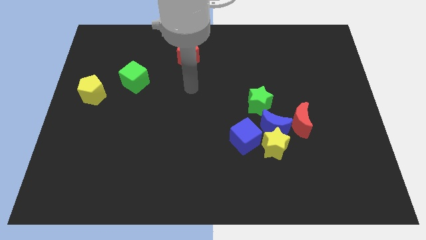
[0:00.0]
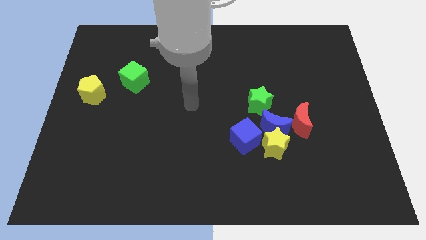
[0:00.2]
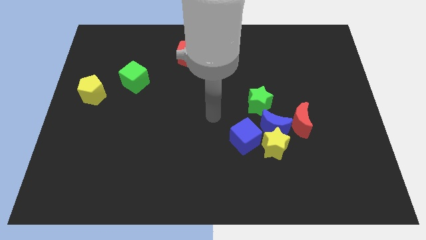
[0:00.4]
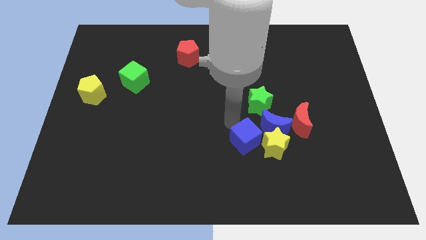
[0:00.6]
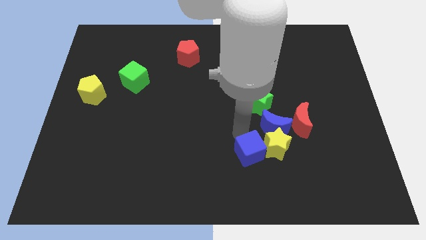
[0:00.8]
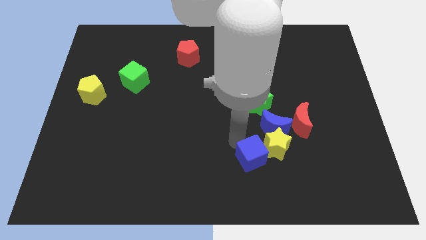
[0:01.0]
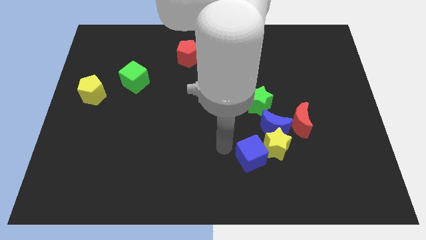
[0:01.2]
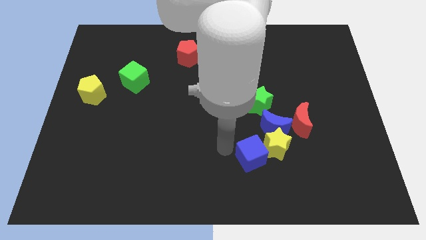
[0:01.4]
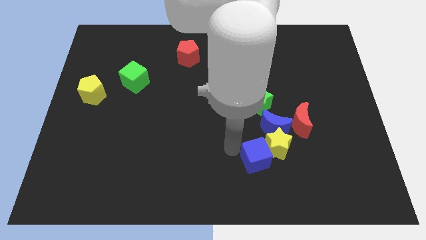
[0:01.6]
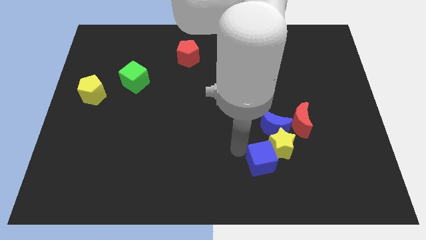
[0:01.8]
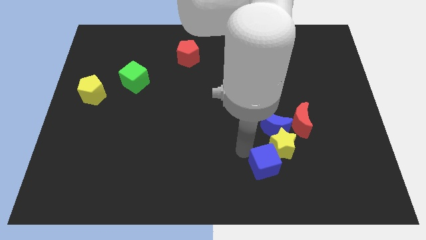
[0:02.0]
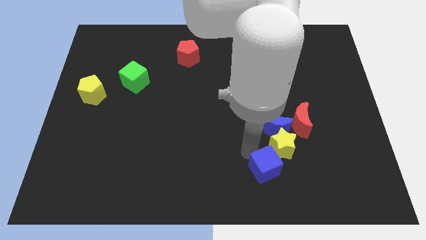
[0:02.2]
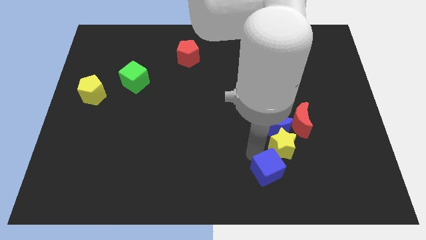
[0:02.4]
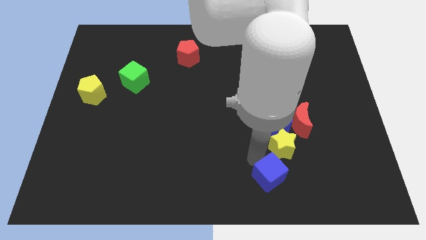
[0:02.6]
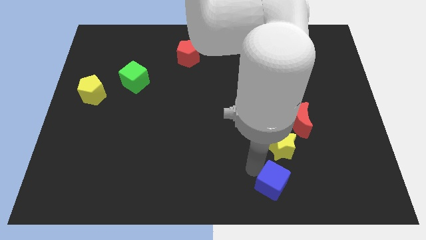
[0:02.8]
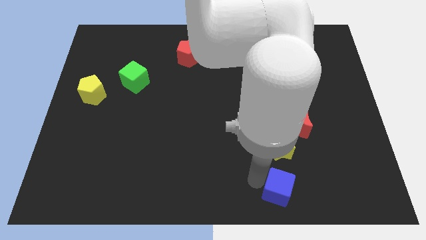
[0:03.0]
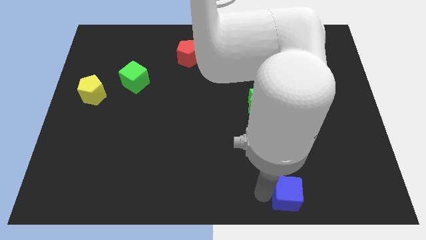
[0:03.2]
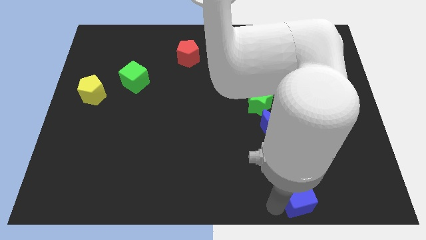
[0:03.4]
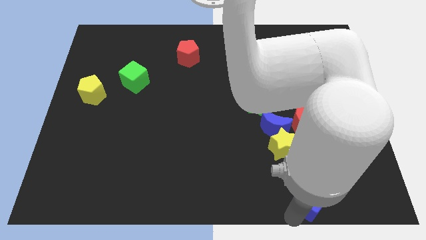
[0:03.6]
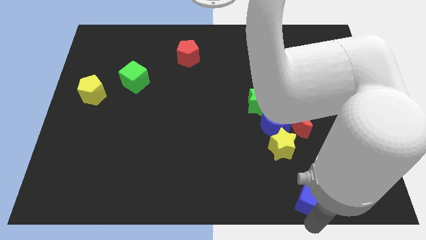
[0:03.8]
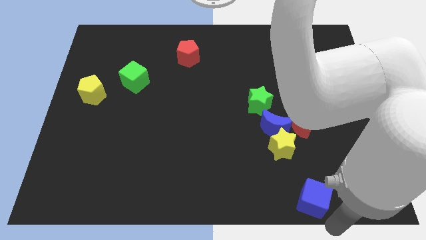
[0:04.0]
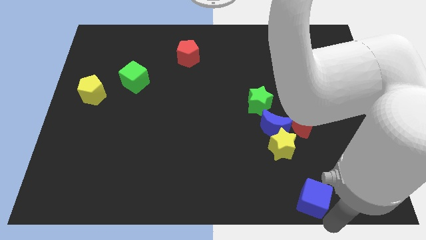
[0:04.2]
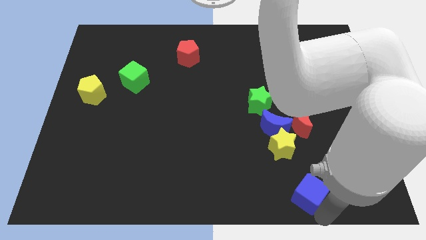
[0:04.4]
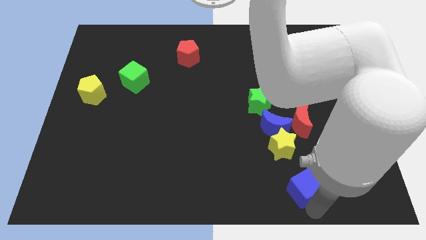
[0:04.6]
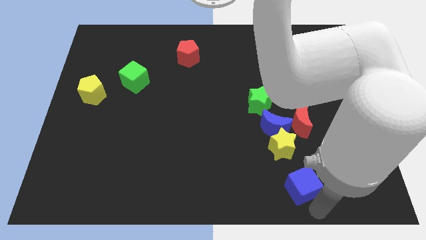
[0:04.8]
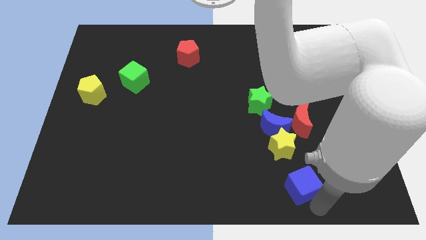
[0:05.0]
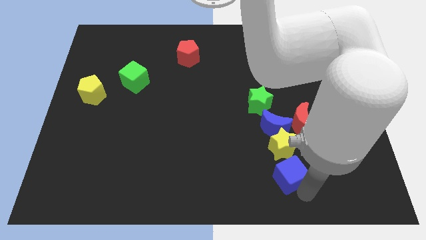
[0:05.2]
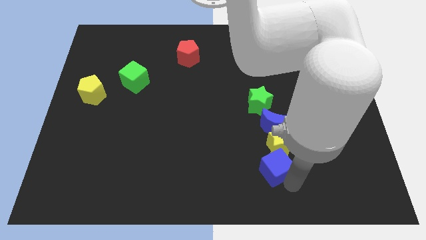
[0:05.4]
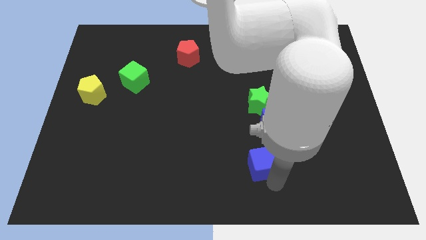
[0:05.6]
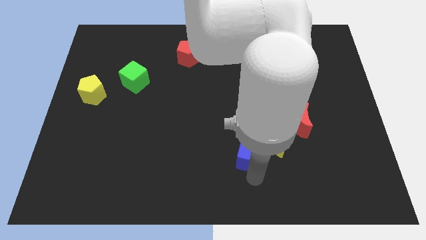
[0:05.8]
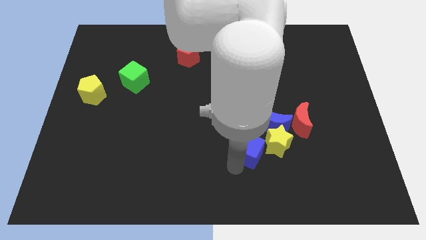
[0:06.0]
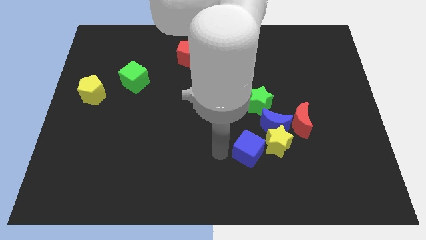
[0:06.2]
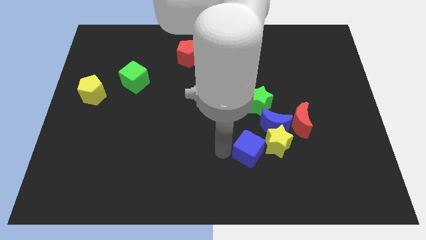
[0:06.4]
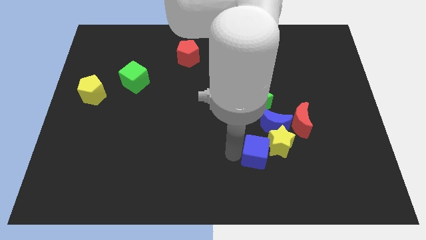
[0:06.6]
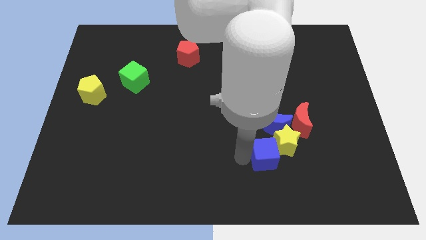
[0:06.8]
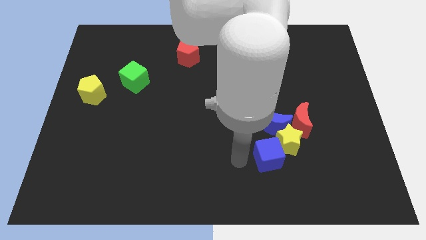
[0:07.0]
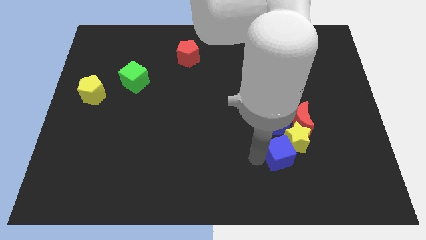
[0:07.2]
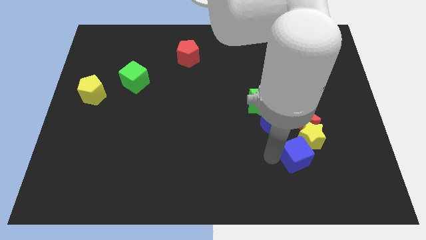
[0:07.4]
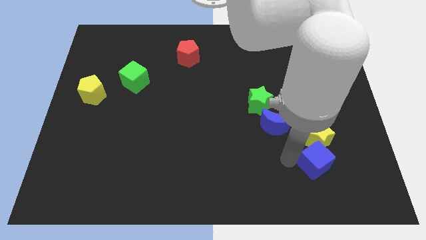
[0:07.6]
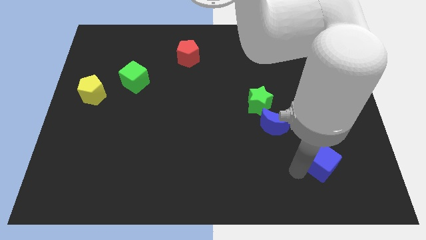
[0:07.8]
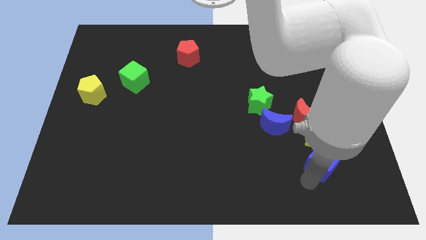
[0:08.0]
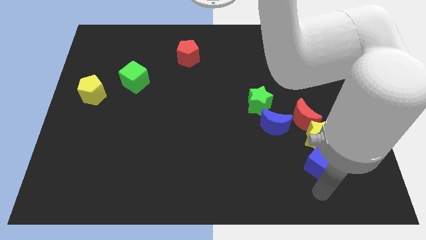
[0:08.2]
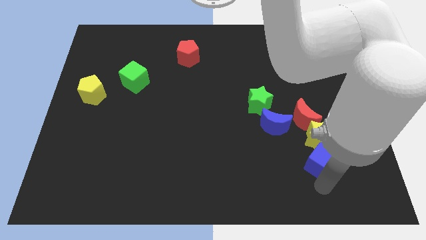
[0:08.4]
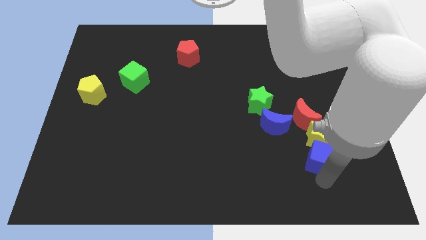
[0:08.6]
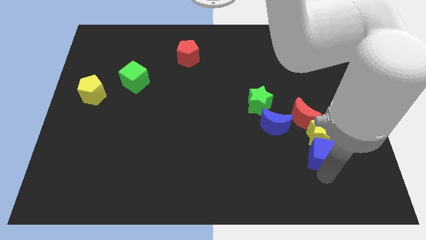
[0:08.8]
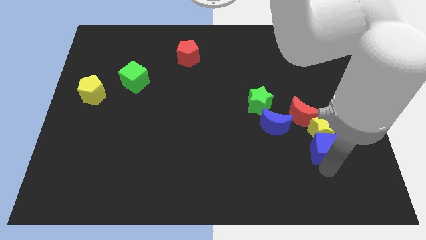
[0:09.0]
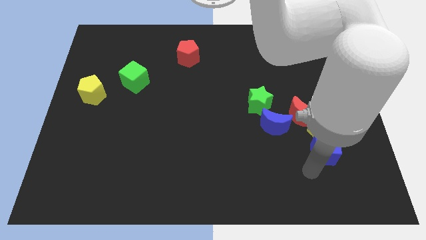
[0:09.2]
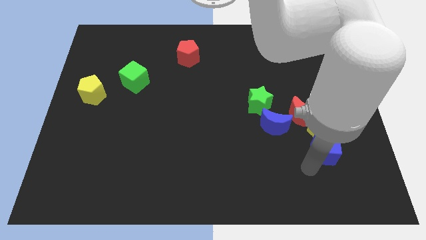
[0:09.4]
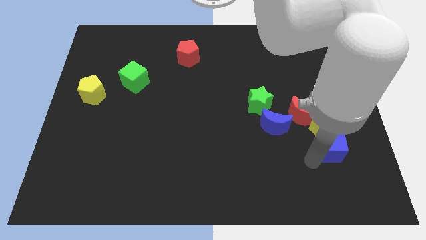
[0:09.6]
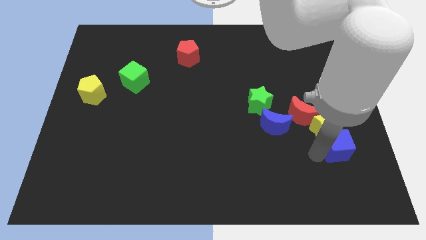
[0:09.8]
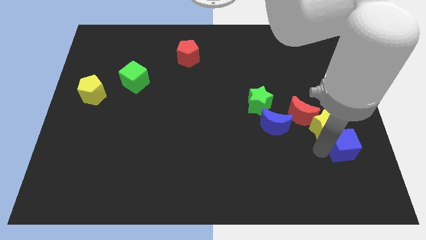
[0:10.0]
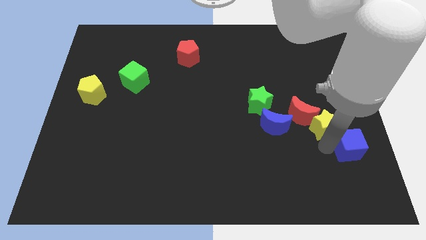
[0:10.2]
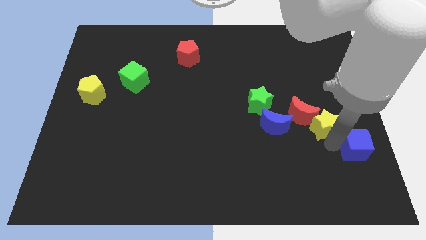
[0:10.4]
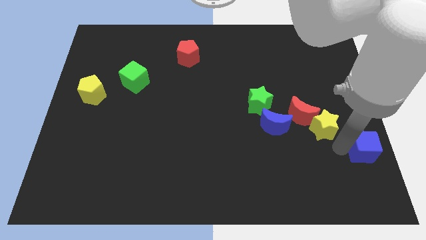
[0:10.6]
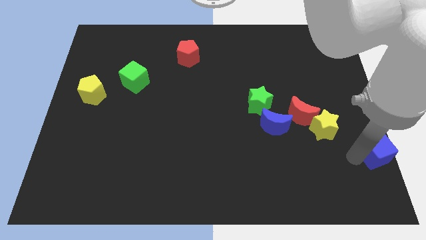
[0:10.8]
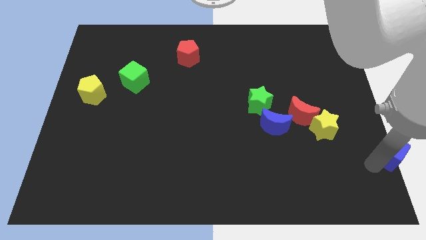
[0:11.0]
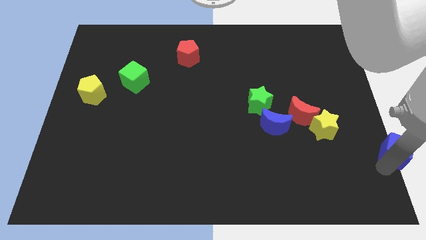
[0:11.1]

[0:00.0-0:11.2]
slide the blue cube to the center right

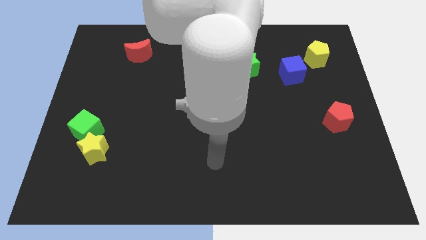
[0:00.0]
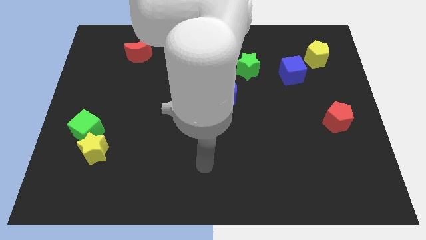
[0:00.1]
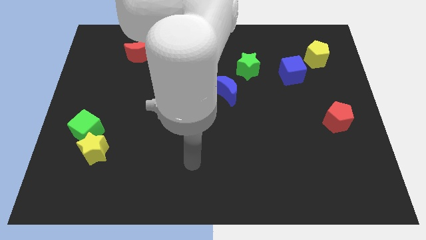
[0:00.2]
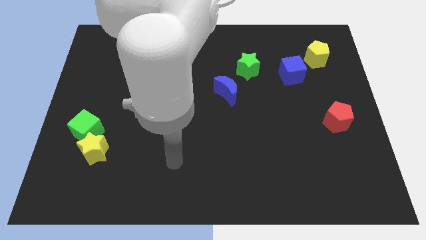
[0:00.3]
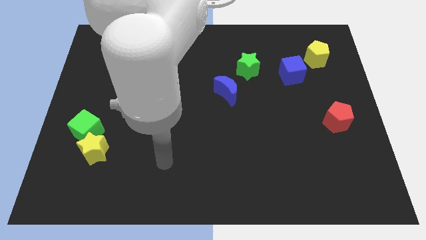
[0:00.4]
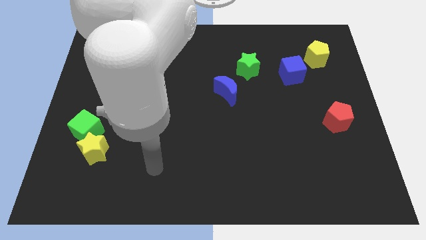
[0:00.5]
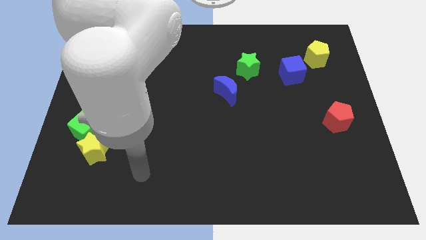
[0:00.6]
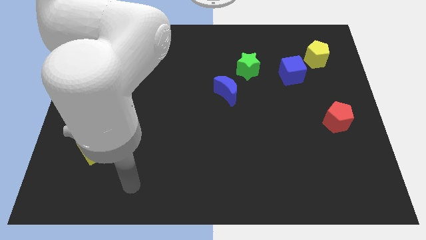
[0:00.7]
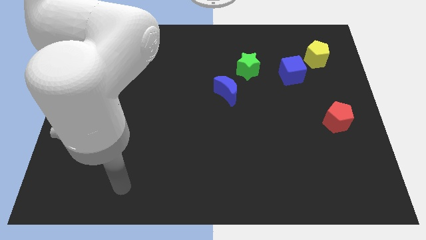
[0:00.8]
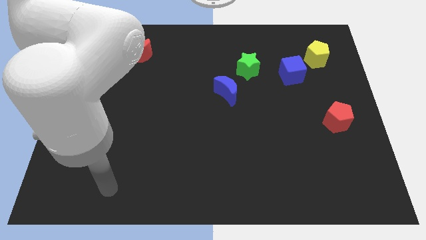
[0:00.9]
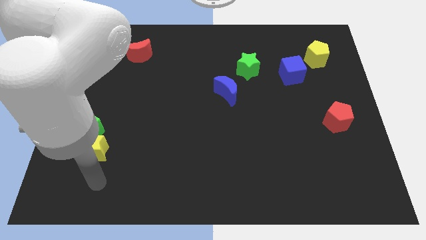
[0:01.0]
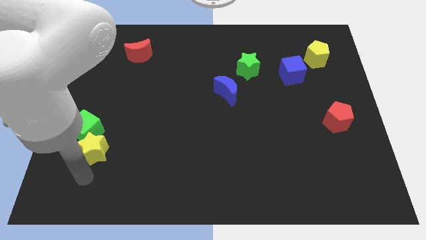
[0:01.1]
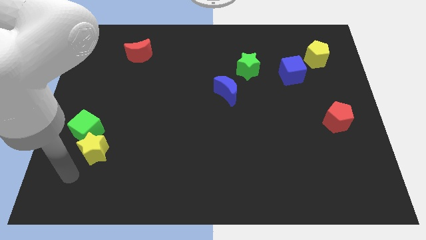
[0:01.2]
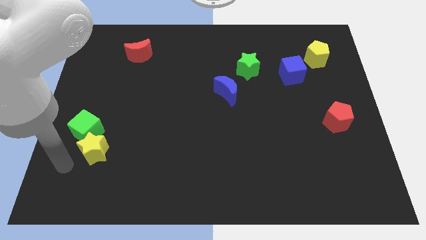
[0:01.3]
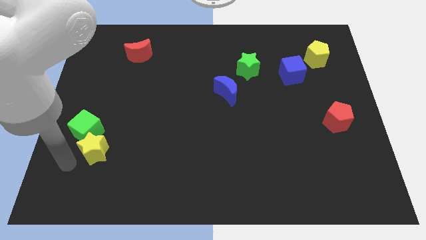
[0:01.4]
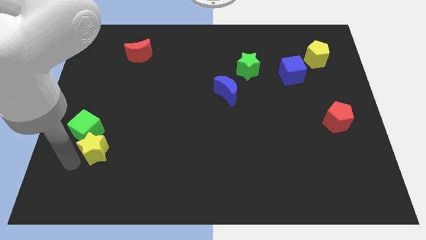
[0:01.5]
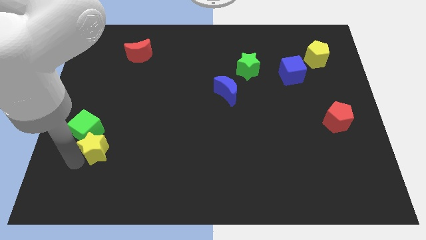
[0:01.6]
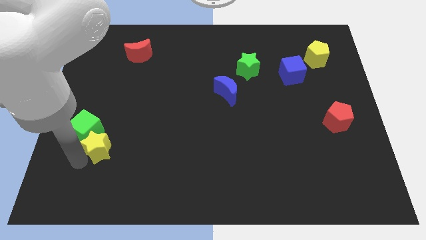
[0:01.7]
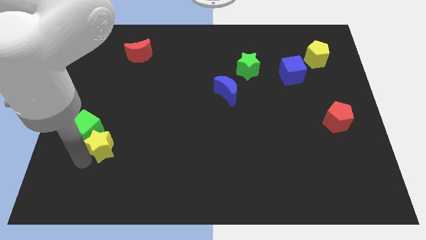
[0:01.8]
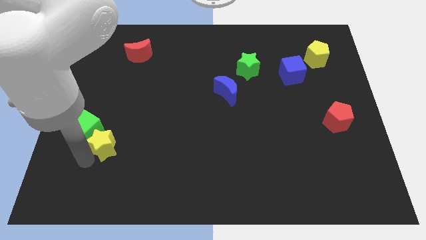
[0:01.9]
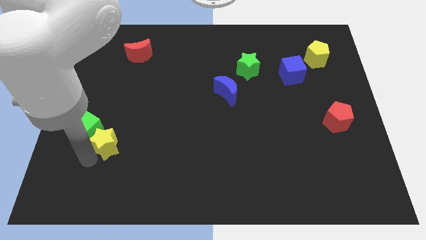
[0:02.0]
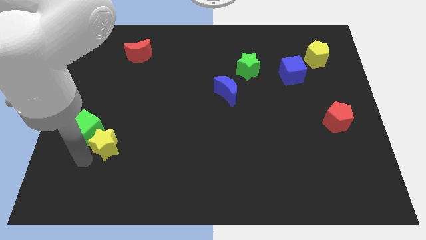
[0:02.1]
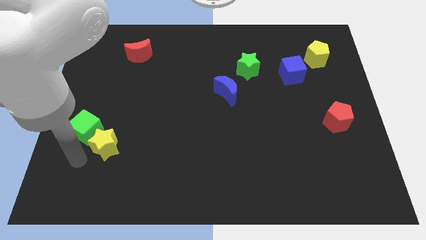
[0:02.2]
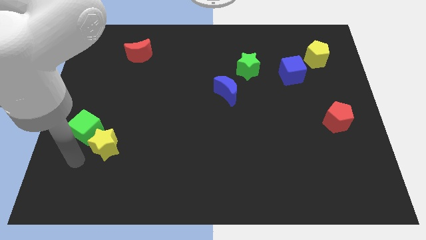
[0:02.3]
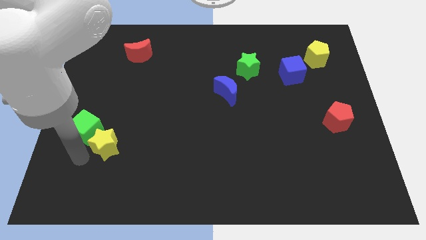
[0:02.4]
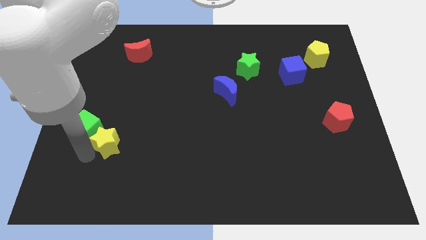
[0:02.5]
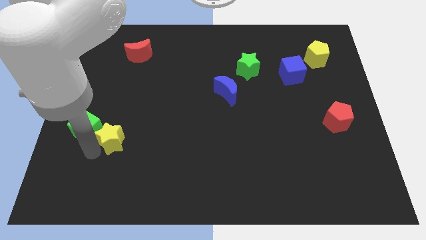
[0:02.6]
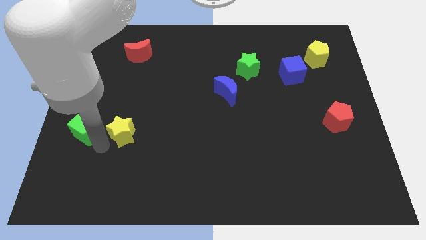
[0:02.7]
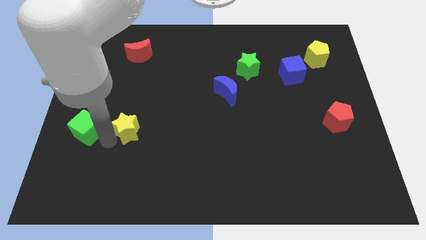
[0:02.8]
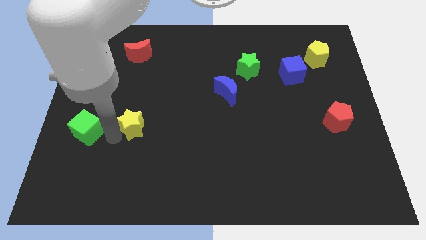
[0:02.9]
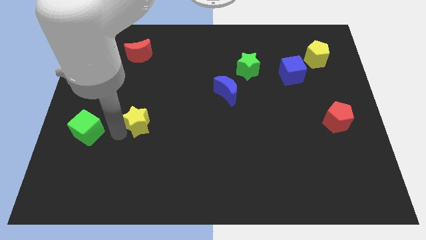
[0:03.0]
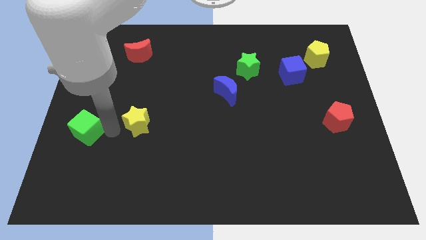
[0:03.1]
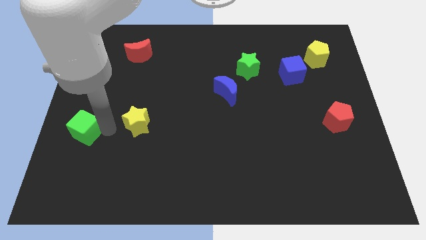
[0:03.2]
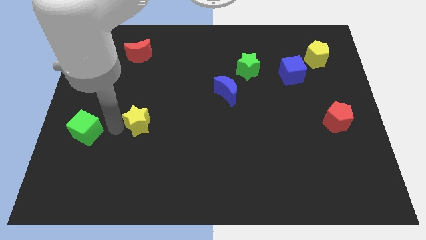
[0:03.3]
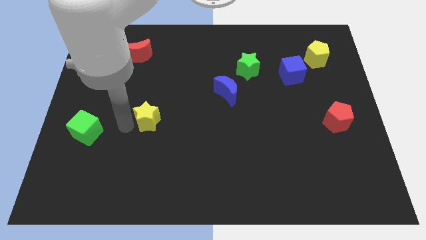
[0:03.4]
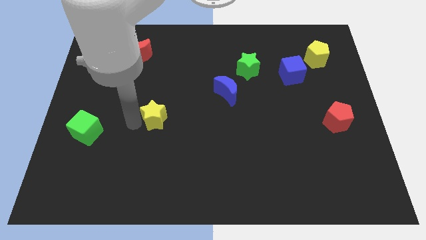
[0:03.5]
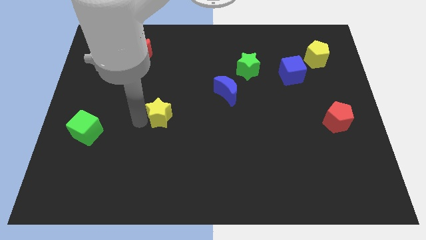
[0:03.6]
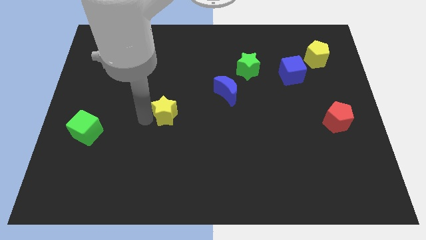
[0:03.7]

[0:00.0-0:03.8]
push the yellow star to the middle
